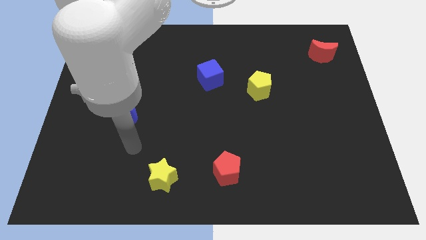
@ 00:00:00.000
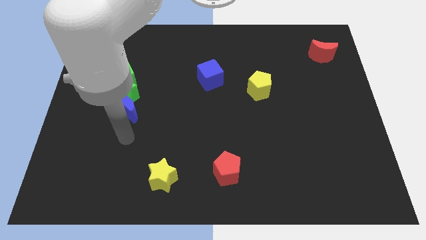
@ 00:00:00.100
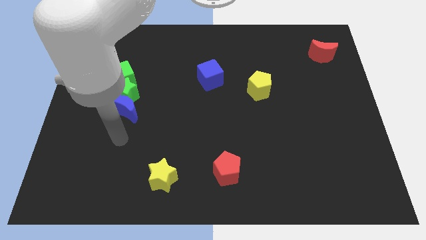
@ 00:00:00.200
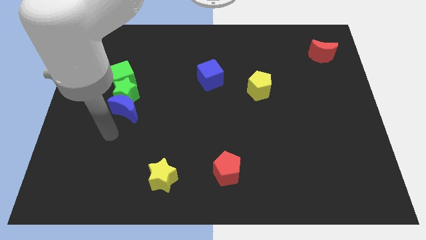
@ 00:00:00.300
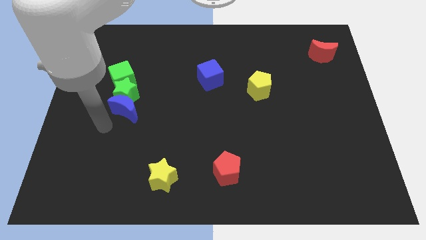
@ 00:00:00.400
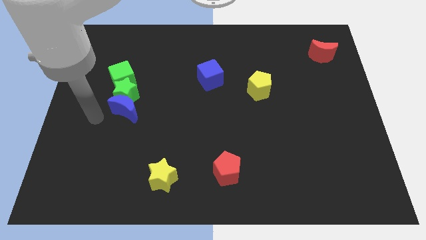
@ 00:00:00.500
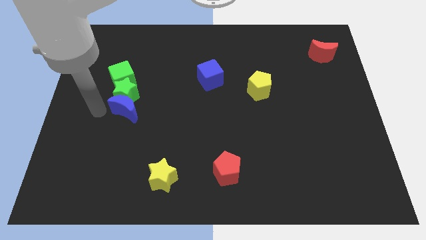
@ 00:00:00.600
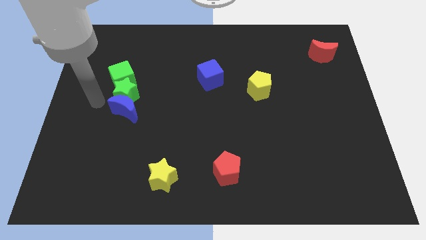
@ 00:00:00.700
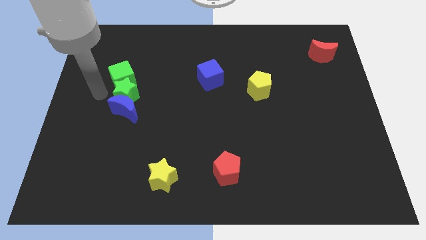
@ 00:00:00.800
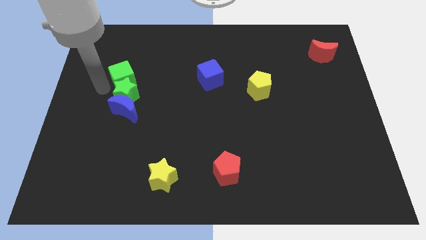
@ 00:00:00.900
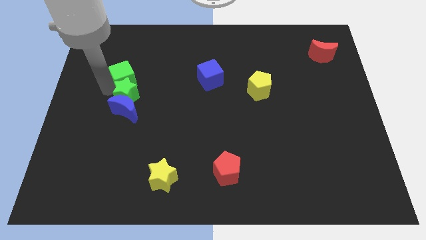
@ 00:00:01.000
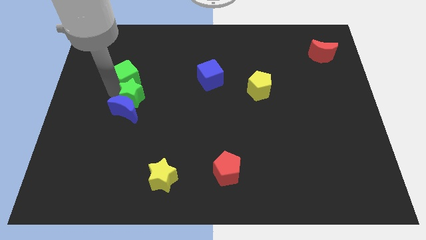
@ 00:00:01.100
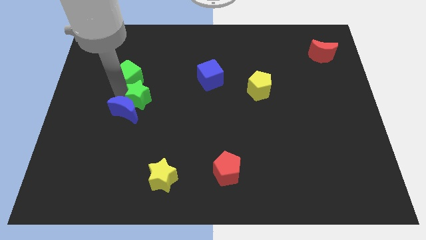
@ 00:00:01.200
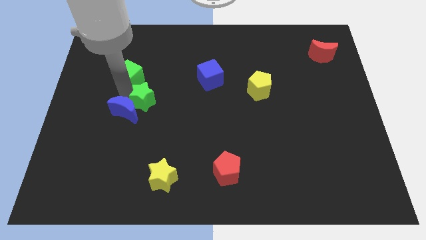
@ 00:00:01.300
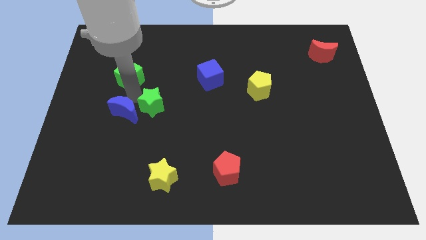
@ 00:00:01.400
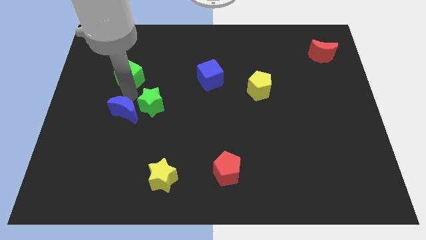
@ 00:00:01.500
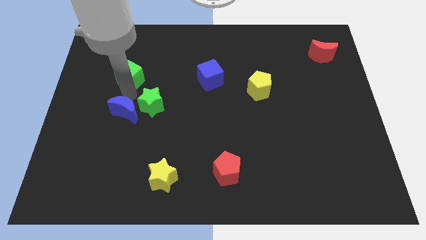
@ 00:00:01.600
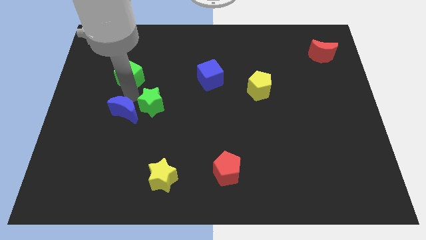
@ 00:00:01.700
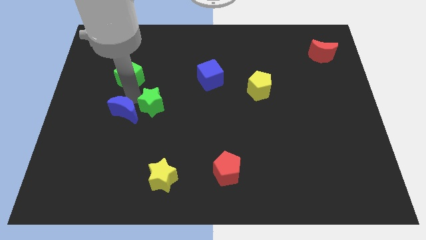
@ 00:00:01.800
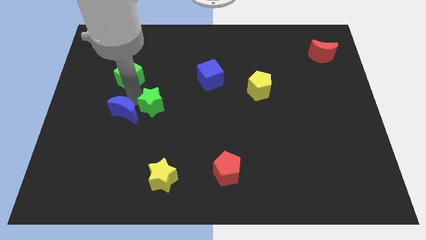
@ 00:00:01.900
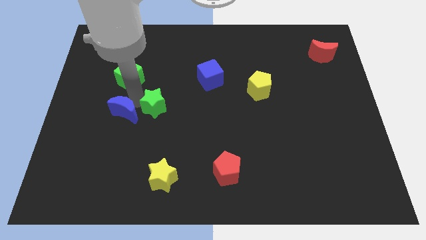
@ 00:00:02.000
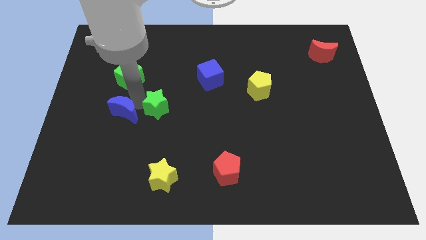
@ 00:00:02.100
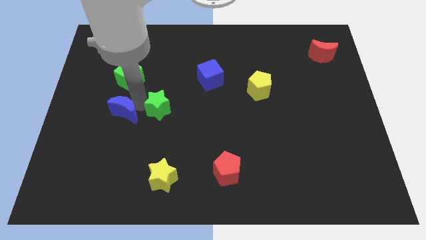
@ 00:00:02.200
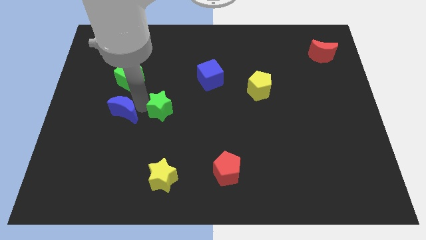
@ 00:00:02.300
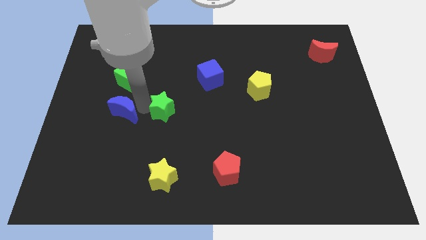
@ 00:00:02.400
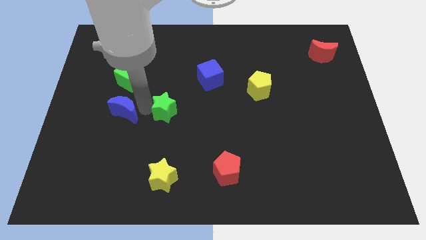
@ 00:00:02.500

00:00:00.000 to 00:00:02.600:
move the green star away from the blue moon and green cube

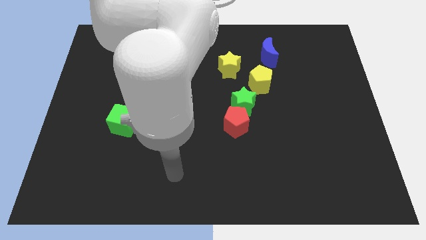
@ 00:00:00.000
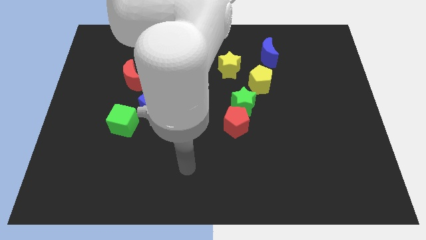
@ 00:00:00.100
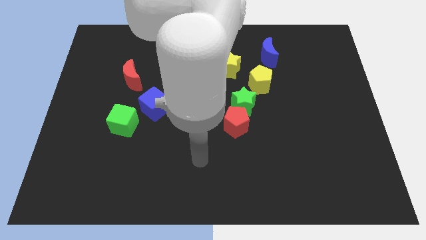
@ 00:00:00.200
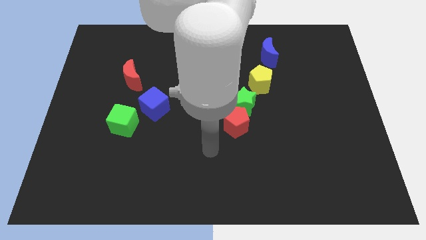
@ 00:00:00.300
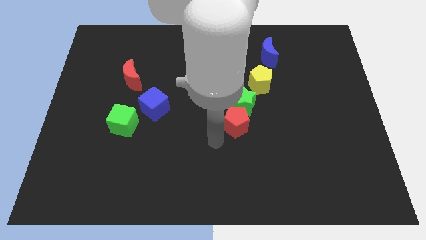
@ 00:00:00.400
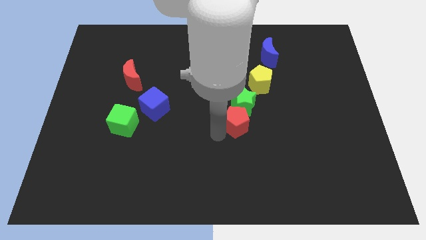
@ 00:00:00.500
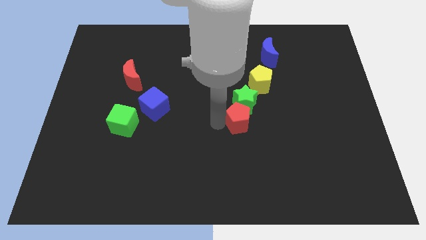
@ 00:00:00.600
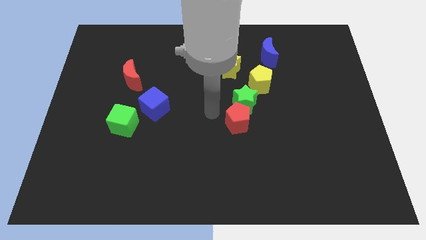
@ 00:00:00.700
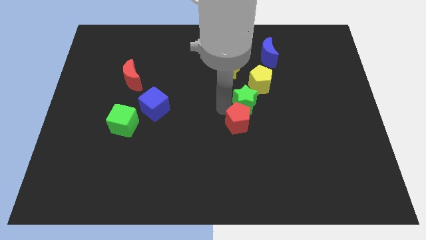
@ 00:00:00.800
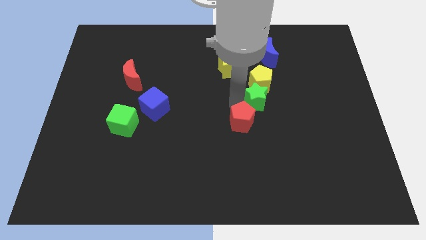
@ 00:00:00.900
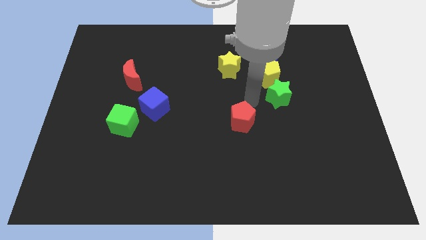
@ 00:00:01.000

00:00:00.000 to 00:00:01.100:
pull the red pentagon apart from the green star

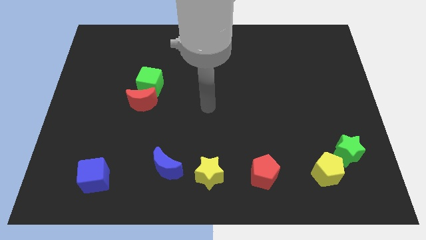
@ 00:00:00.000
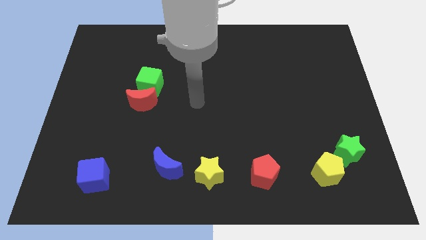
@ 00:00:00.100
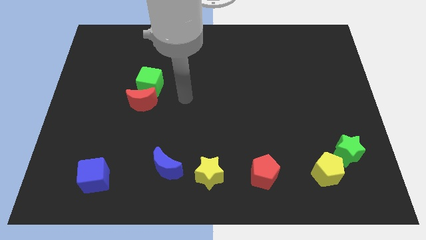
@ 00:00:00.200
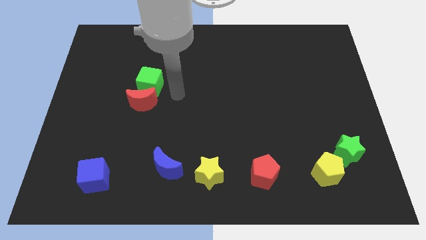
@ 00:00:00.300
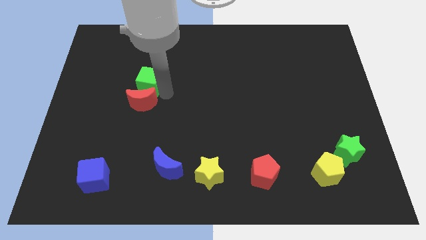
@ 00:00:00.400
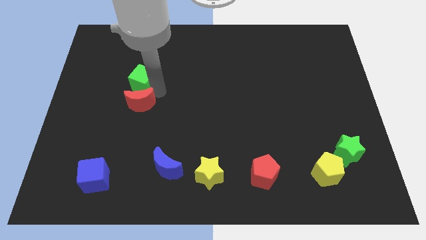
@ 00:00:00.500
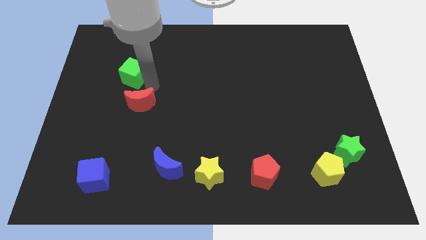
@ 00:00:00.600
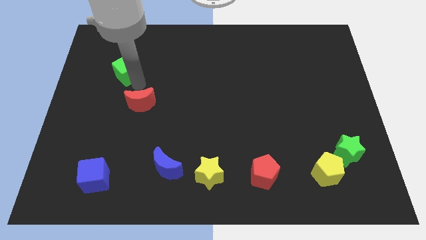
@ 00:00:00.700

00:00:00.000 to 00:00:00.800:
pull the red moon apart from the green cube
